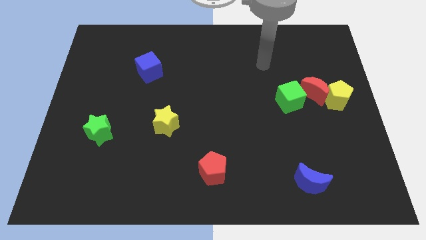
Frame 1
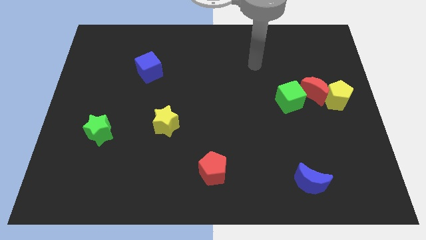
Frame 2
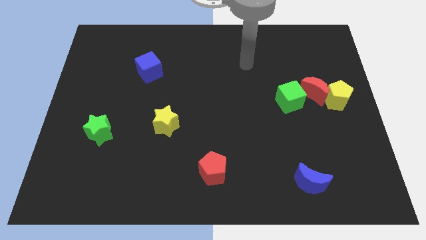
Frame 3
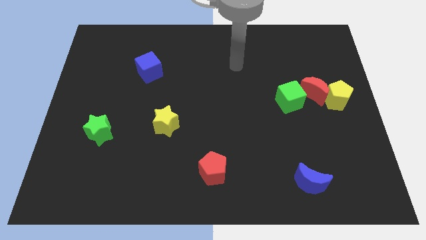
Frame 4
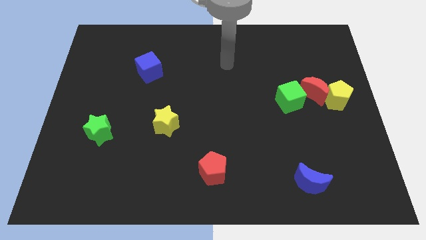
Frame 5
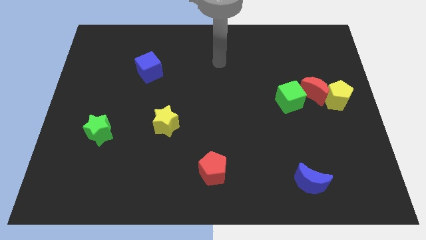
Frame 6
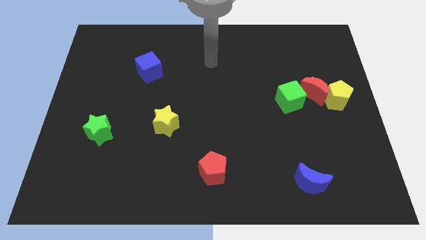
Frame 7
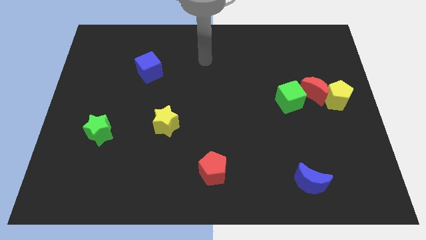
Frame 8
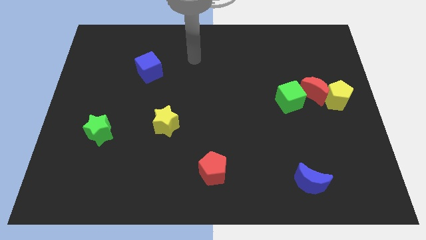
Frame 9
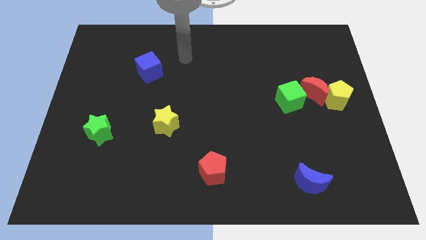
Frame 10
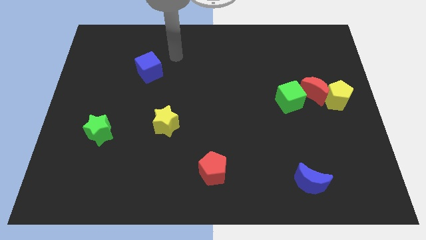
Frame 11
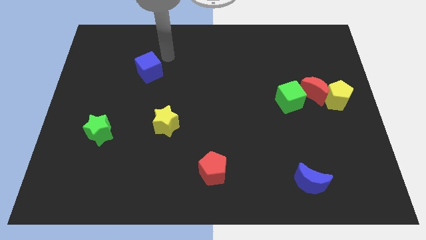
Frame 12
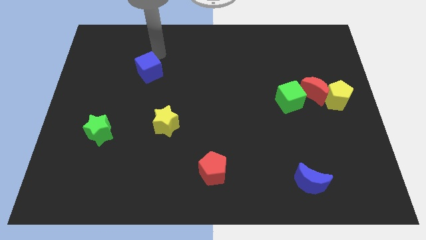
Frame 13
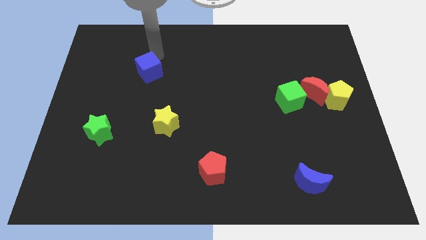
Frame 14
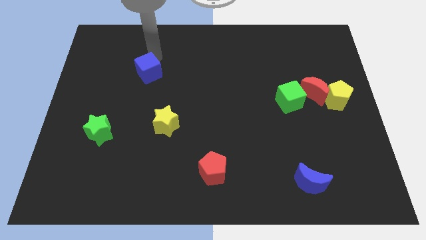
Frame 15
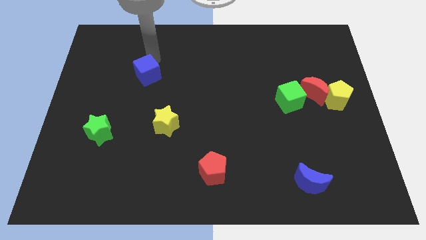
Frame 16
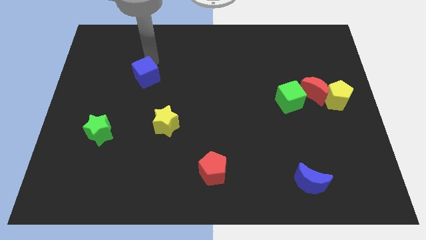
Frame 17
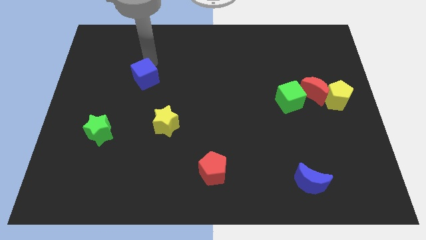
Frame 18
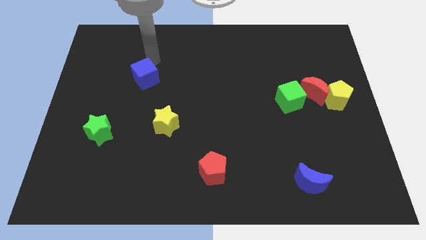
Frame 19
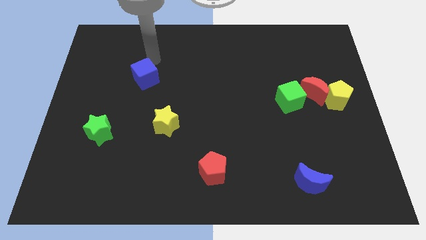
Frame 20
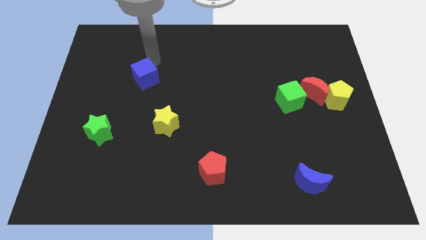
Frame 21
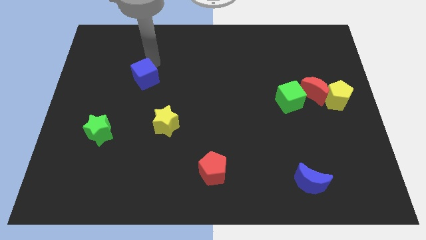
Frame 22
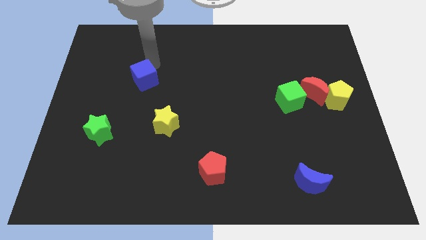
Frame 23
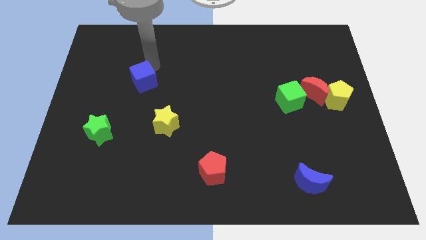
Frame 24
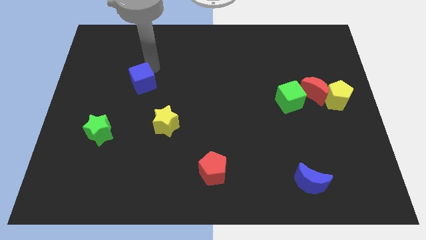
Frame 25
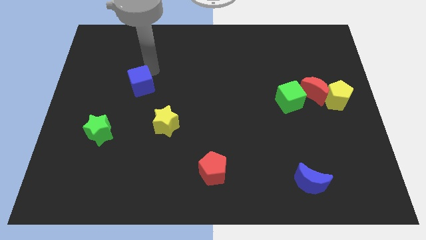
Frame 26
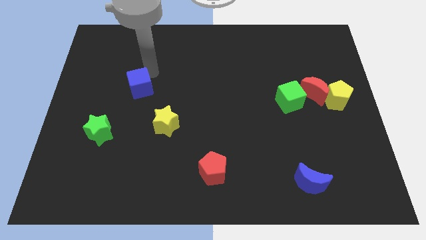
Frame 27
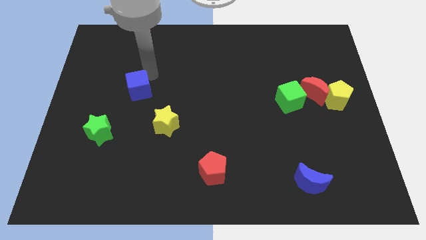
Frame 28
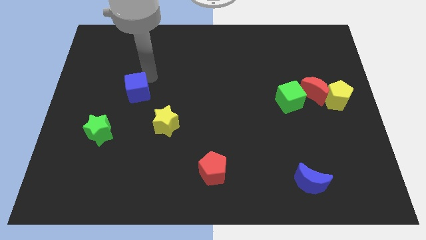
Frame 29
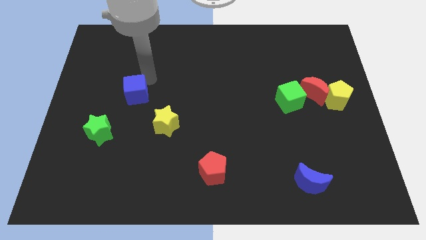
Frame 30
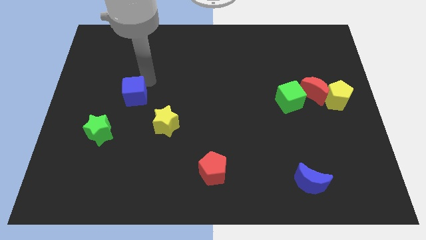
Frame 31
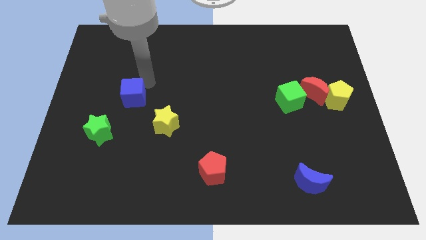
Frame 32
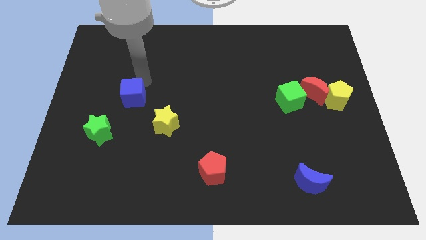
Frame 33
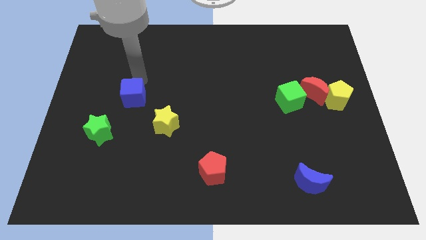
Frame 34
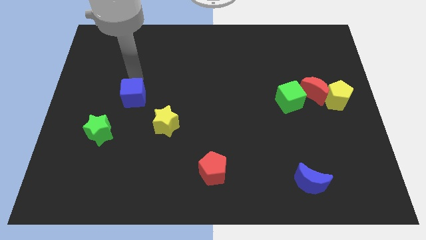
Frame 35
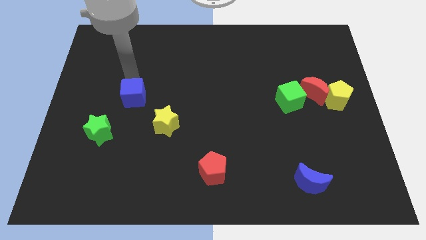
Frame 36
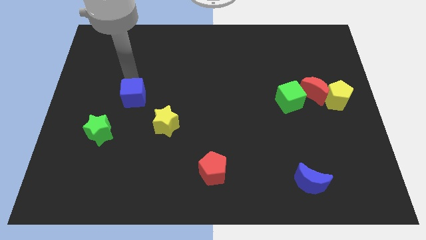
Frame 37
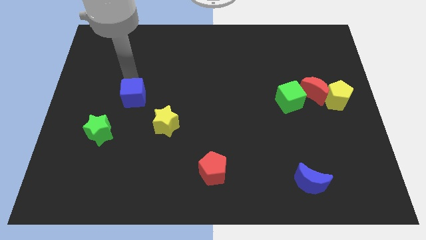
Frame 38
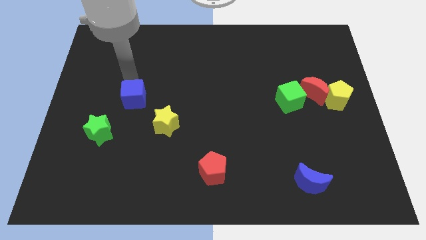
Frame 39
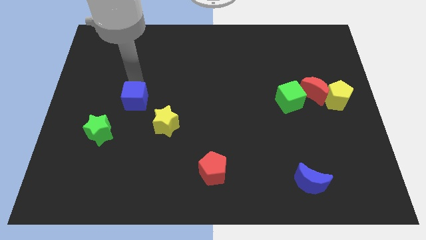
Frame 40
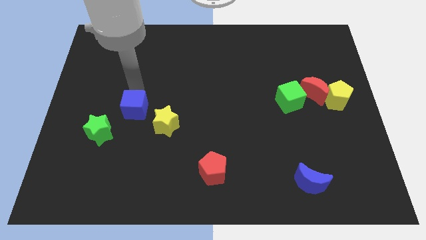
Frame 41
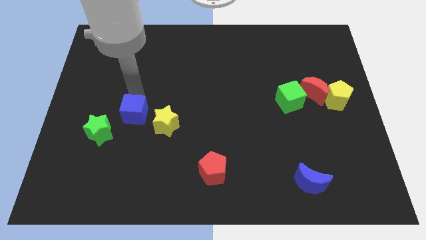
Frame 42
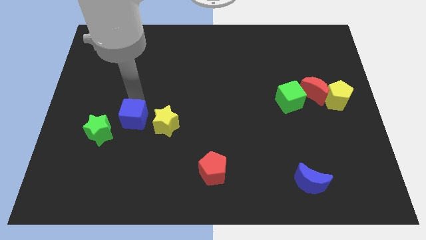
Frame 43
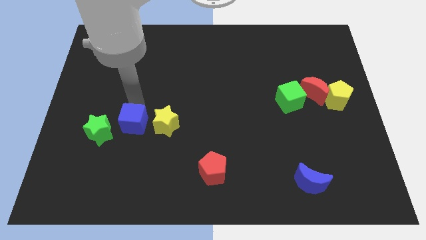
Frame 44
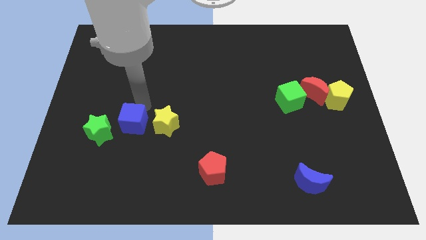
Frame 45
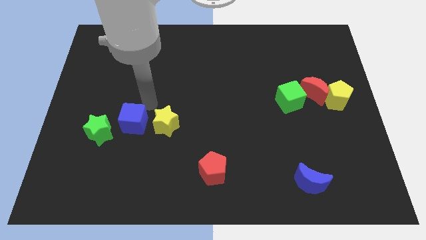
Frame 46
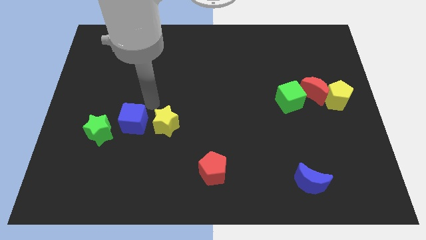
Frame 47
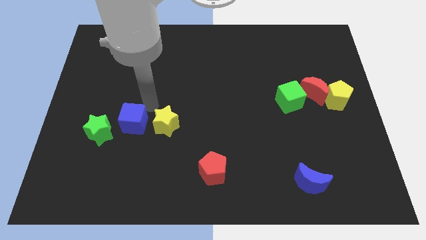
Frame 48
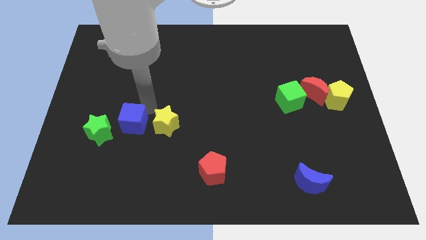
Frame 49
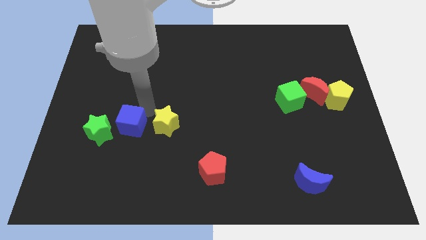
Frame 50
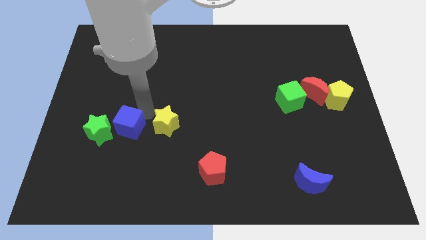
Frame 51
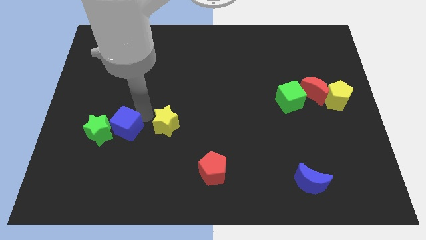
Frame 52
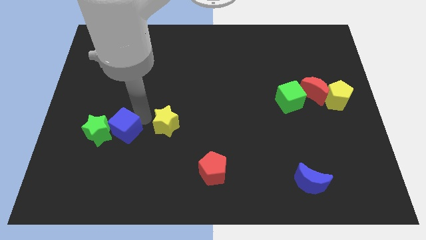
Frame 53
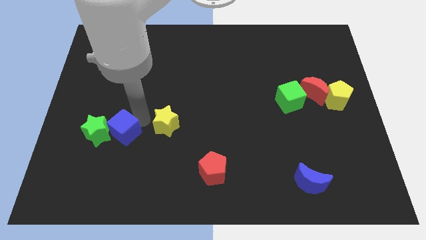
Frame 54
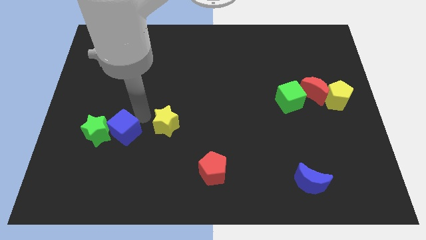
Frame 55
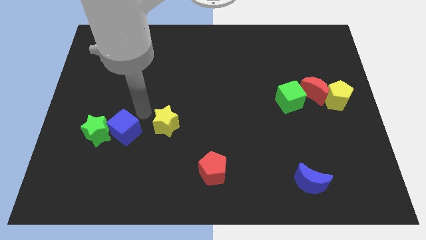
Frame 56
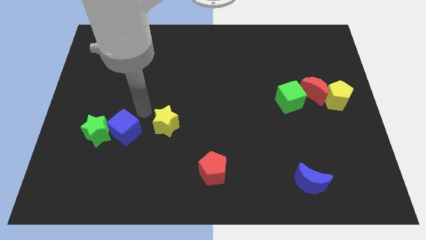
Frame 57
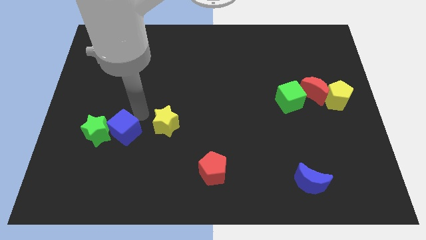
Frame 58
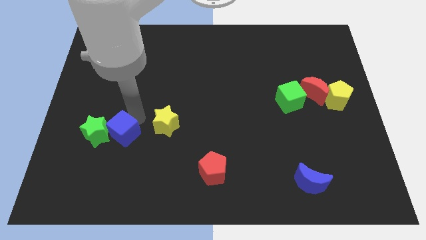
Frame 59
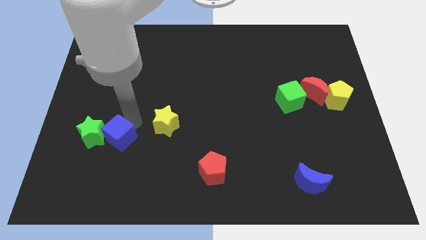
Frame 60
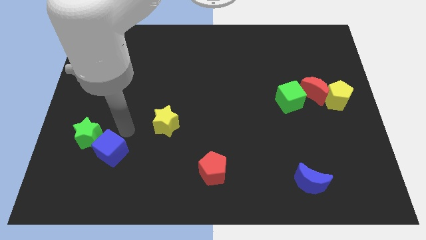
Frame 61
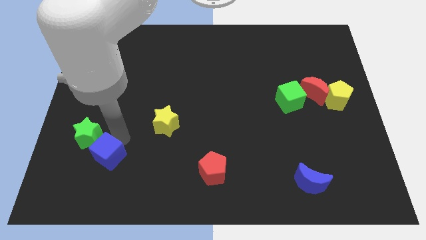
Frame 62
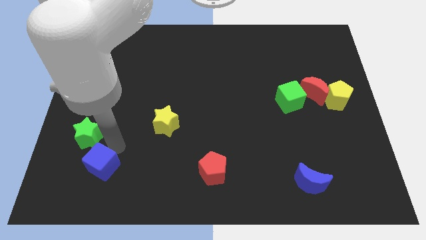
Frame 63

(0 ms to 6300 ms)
push the blue cube below the green star

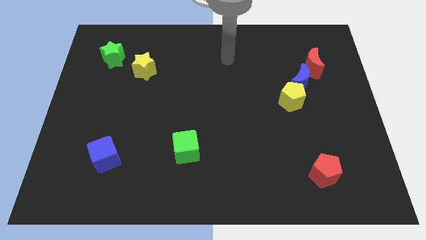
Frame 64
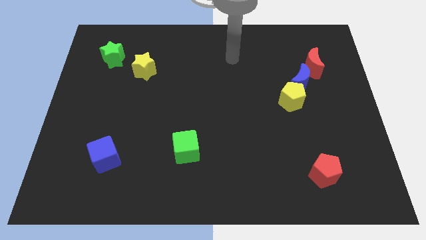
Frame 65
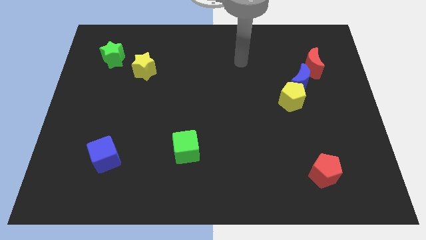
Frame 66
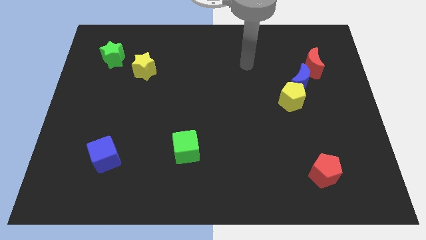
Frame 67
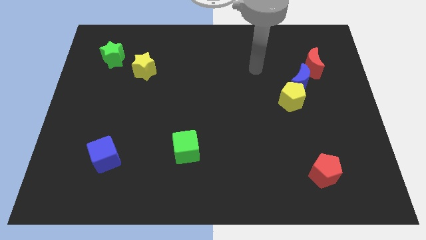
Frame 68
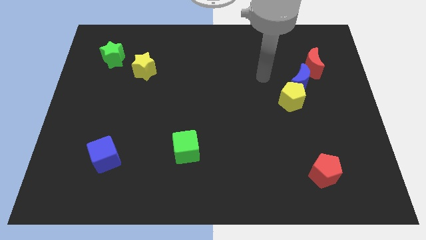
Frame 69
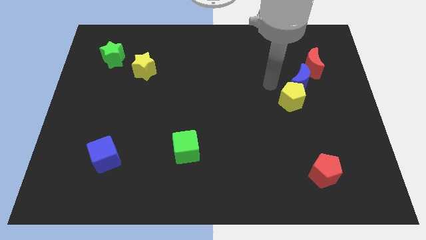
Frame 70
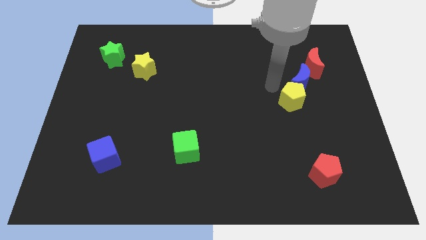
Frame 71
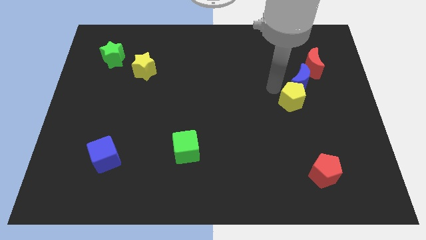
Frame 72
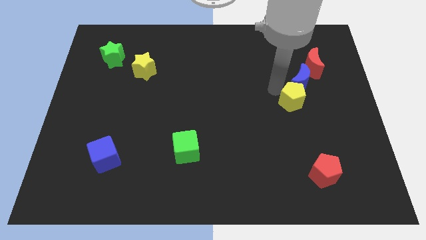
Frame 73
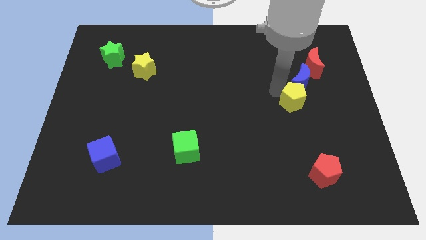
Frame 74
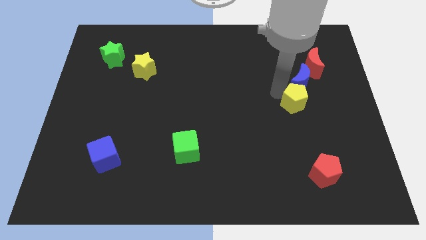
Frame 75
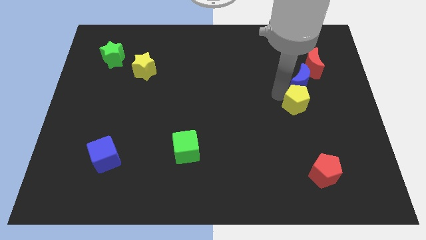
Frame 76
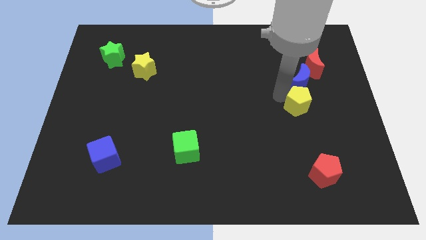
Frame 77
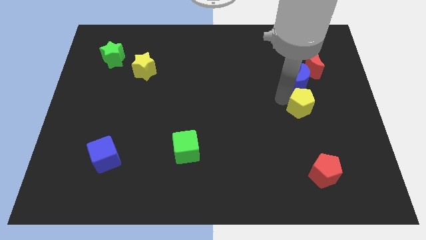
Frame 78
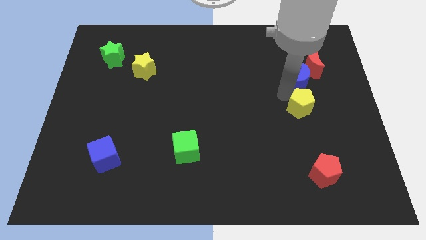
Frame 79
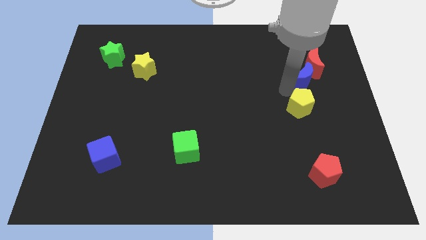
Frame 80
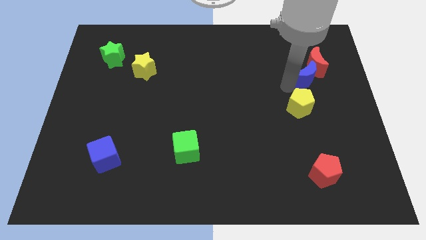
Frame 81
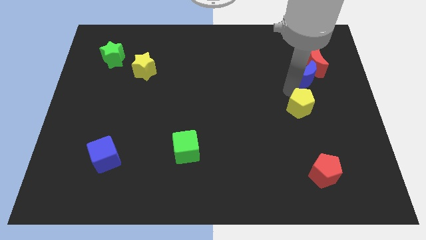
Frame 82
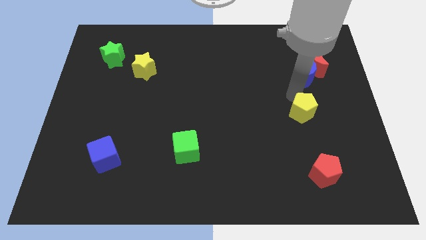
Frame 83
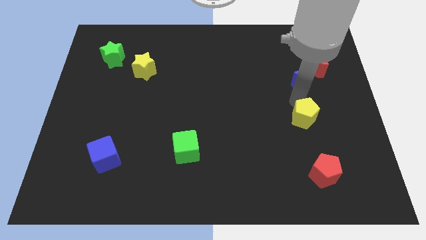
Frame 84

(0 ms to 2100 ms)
slide the yellow pentagon to the top of the red pentagon
